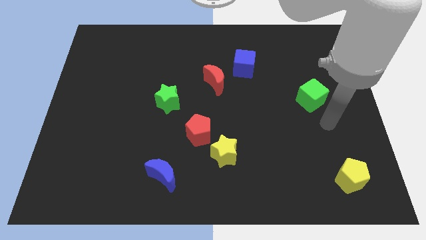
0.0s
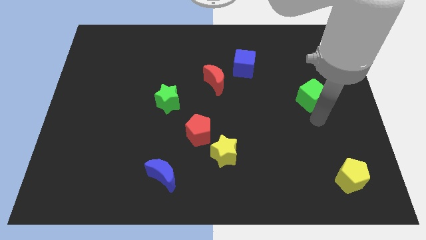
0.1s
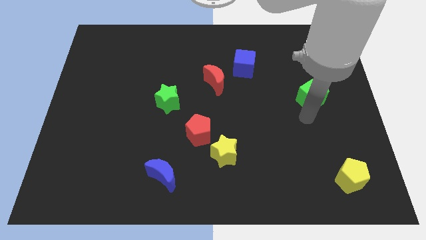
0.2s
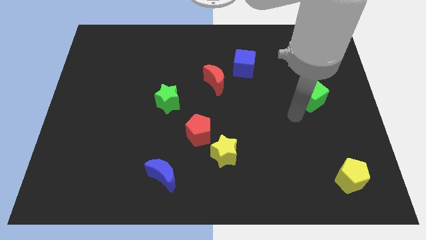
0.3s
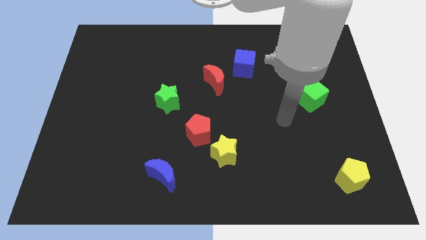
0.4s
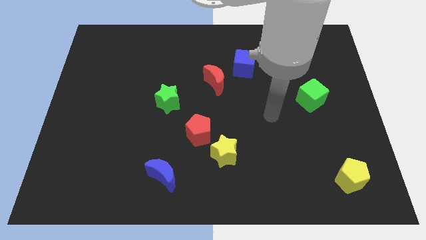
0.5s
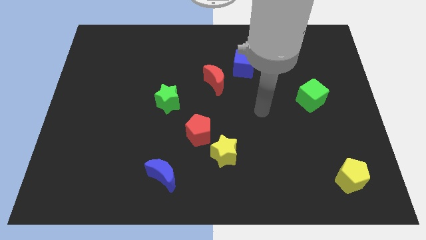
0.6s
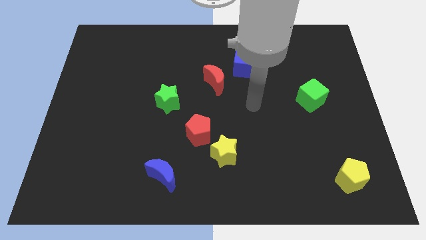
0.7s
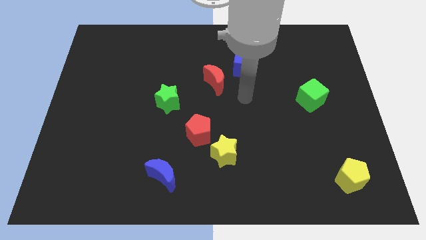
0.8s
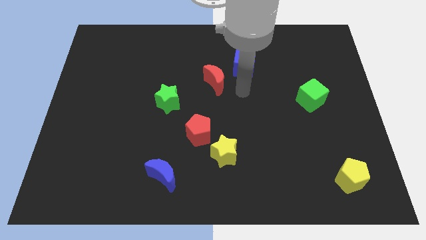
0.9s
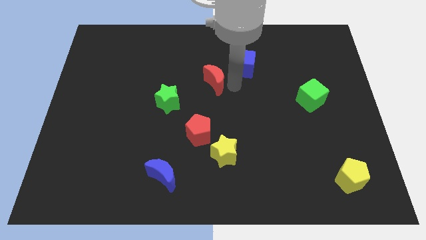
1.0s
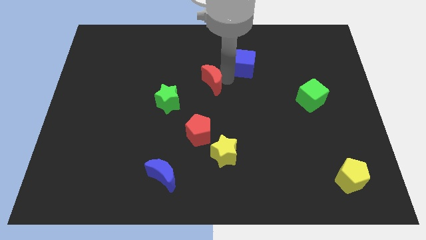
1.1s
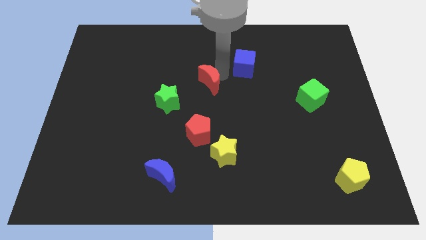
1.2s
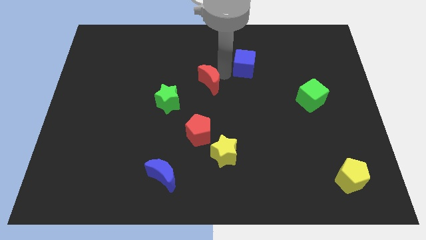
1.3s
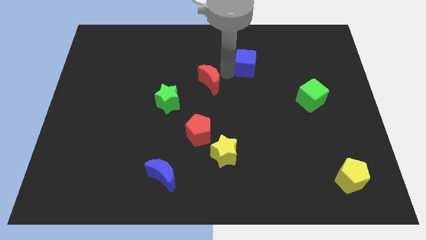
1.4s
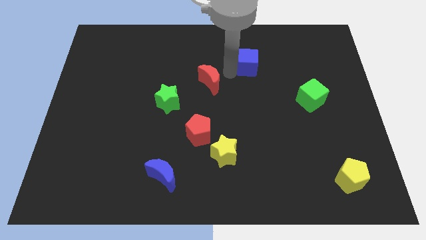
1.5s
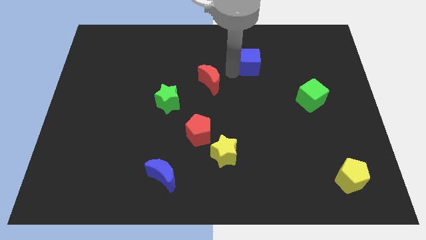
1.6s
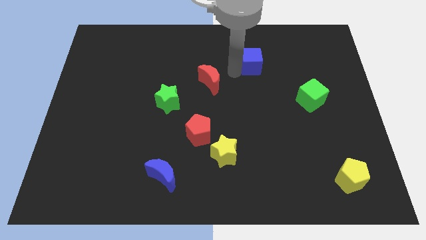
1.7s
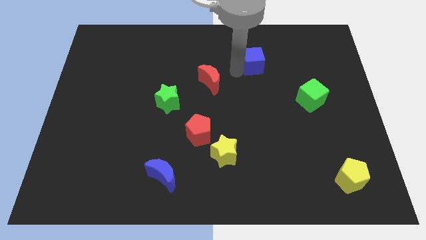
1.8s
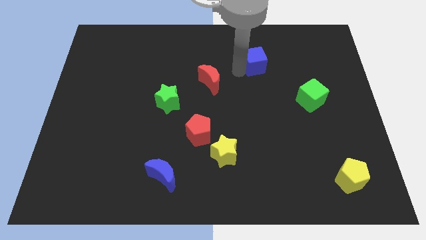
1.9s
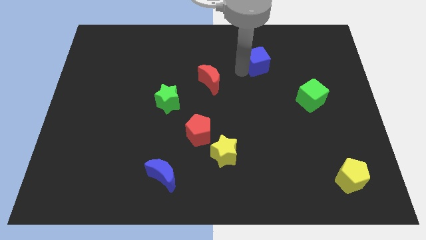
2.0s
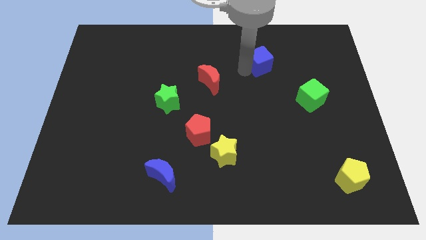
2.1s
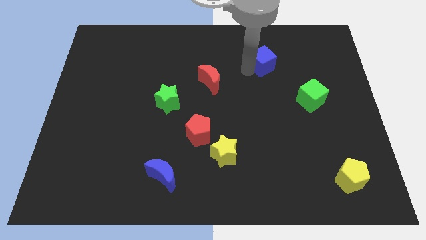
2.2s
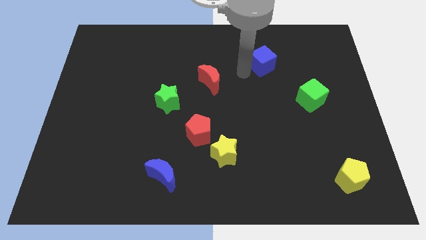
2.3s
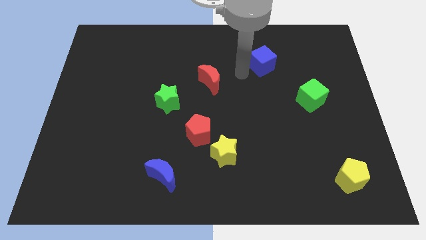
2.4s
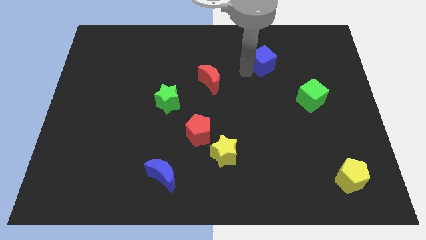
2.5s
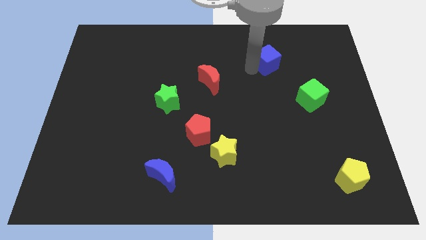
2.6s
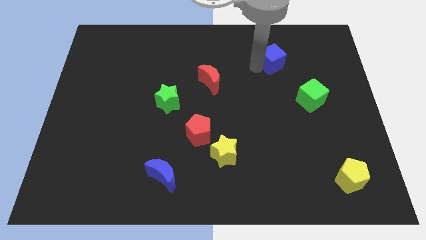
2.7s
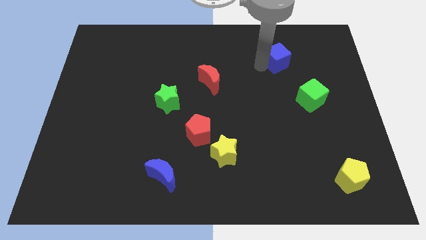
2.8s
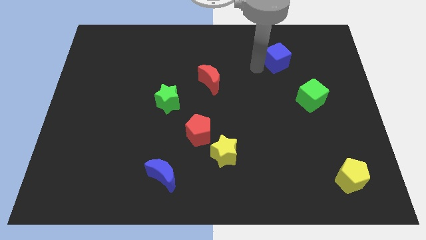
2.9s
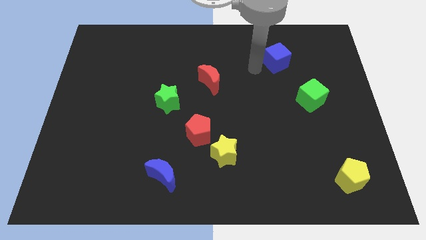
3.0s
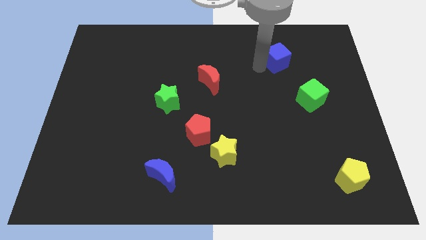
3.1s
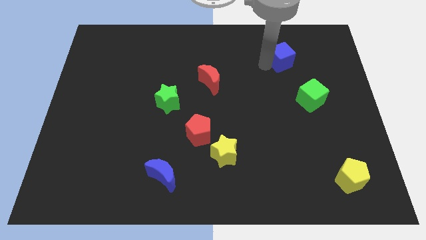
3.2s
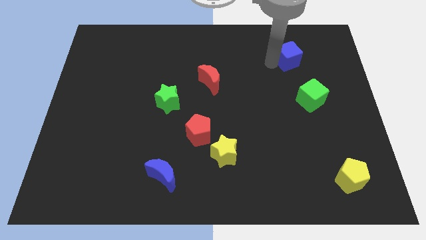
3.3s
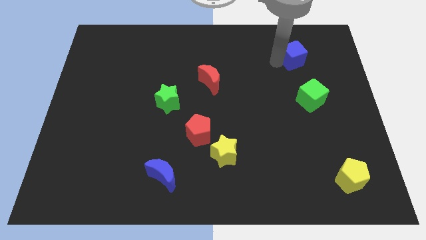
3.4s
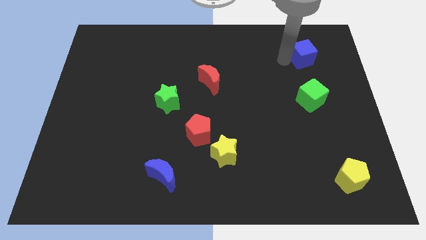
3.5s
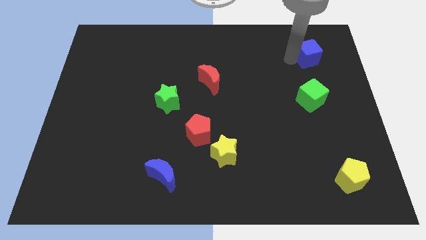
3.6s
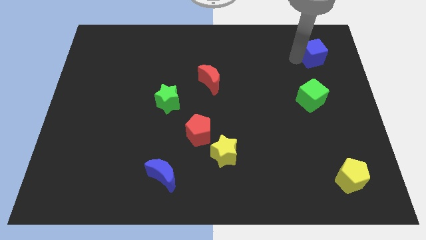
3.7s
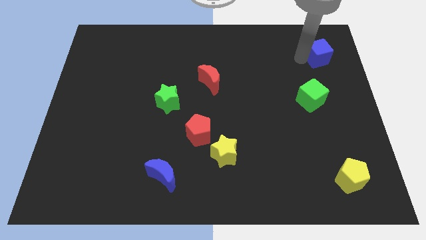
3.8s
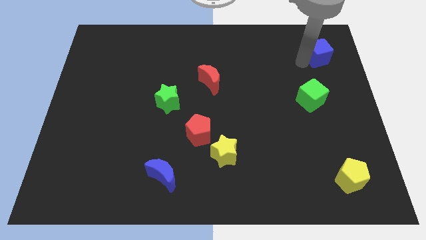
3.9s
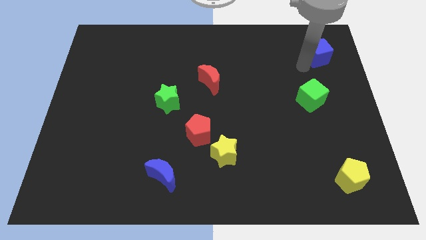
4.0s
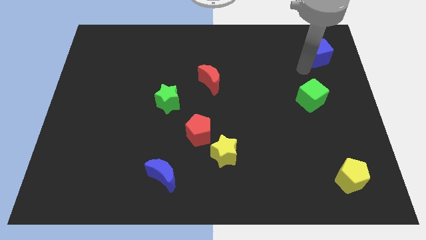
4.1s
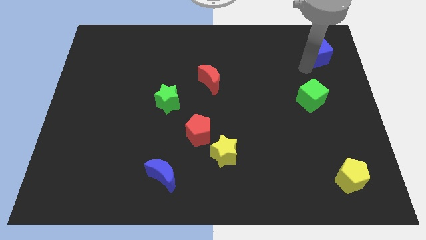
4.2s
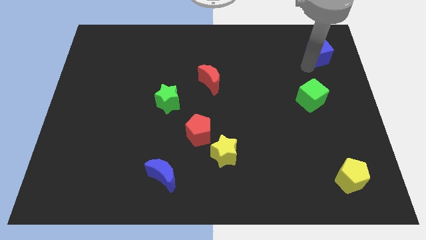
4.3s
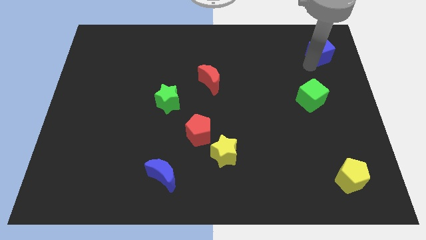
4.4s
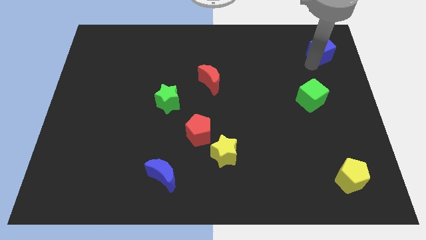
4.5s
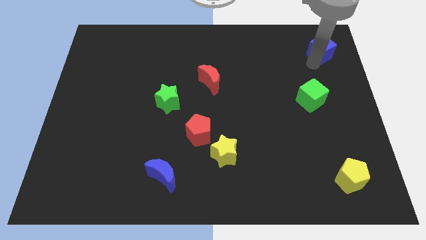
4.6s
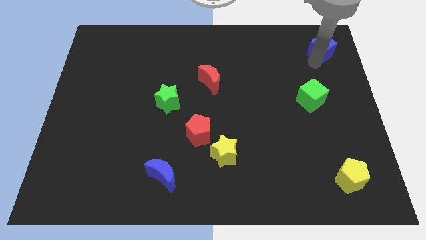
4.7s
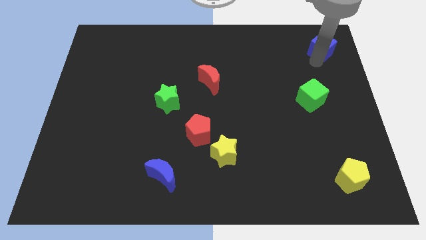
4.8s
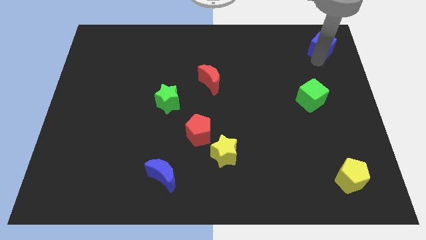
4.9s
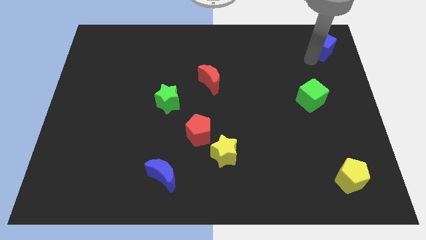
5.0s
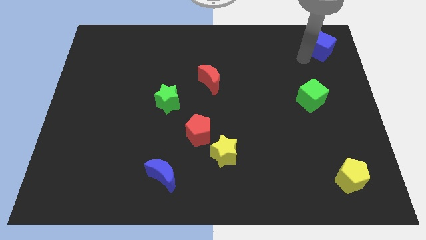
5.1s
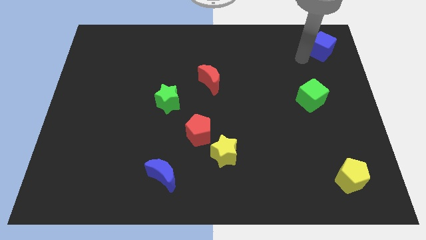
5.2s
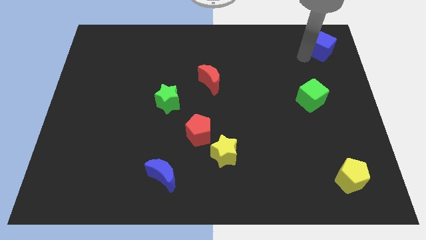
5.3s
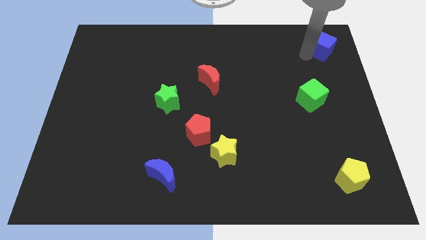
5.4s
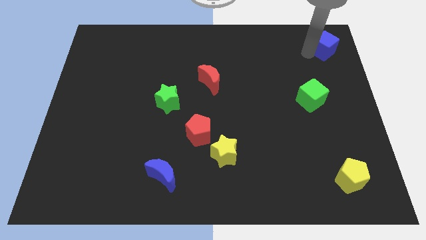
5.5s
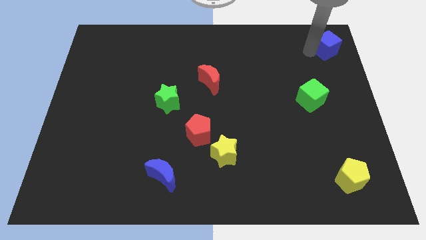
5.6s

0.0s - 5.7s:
put the blue cube to the top right

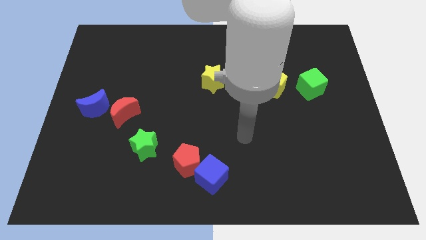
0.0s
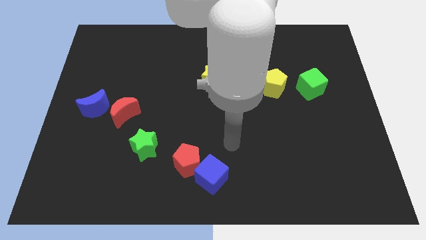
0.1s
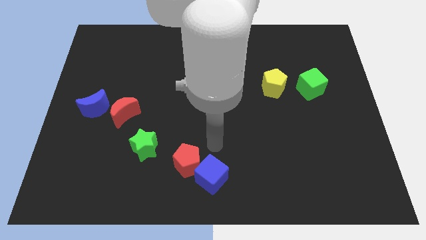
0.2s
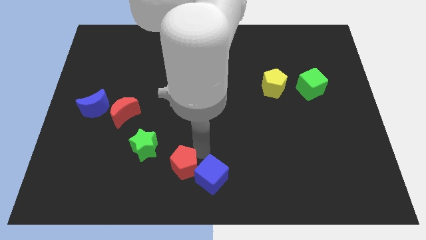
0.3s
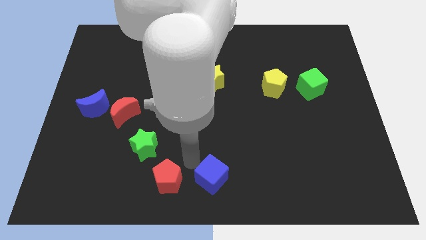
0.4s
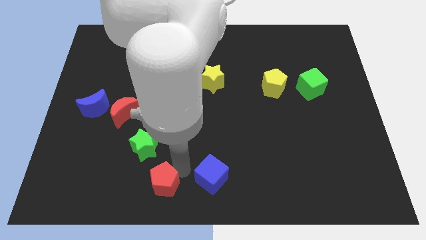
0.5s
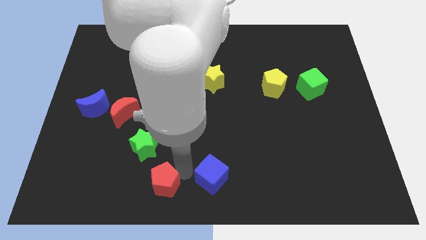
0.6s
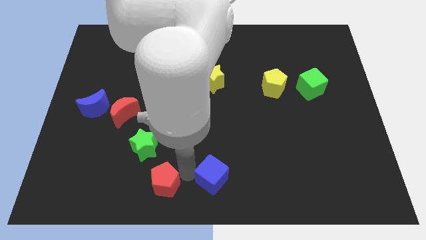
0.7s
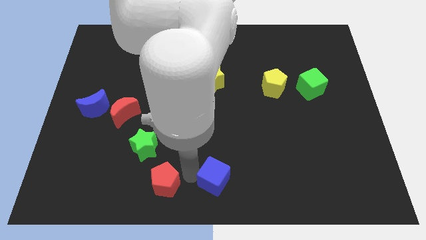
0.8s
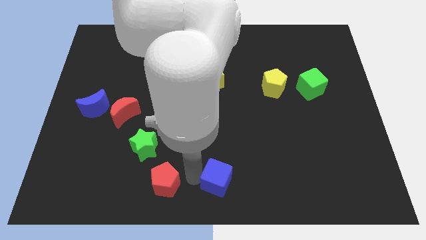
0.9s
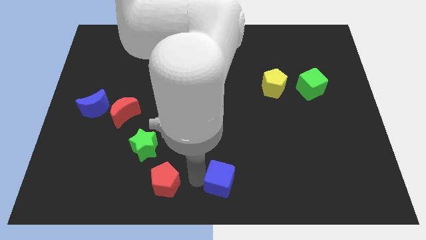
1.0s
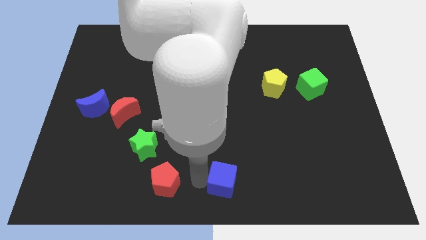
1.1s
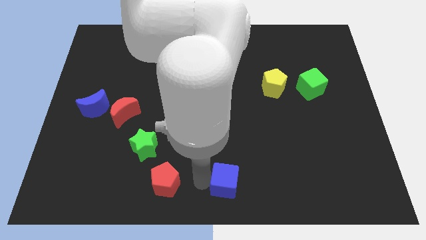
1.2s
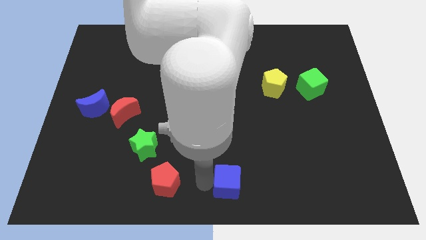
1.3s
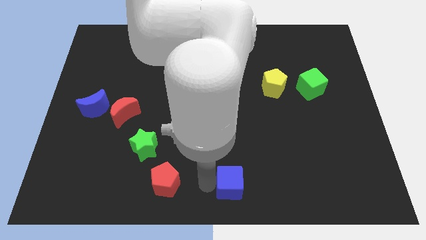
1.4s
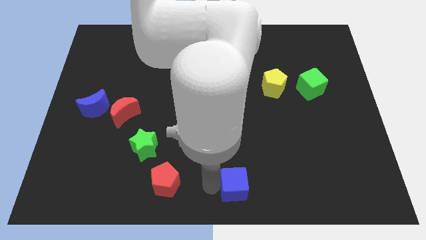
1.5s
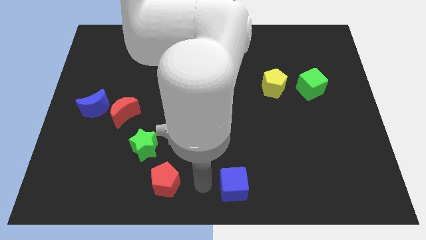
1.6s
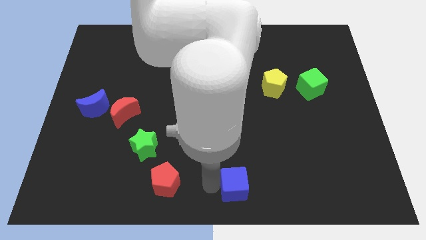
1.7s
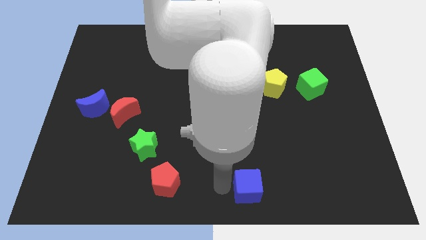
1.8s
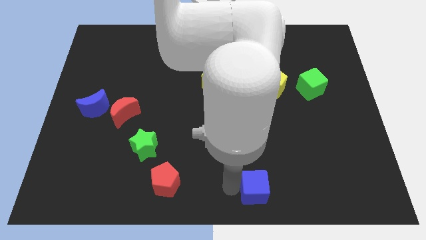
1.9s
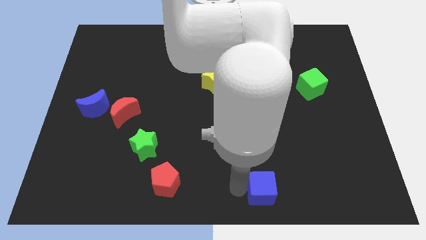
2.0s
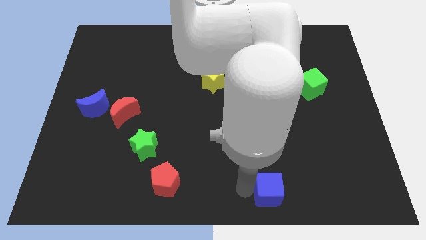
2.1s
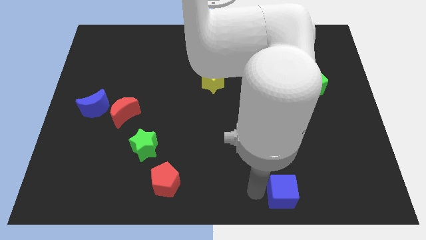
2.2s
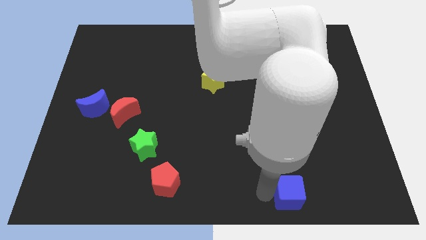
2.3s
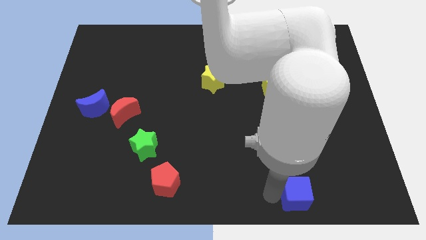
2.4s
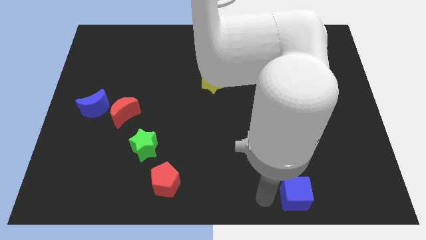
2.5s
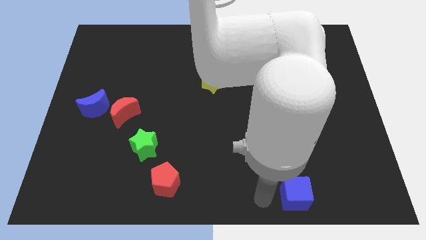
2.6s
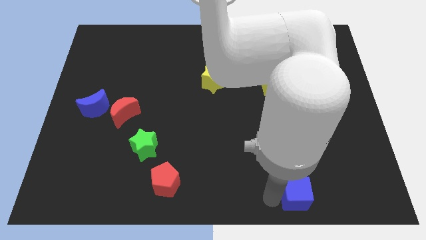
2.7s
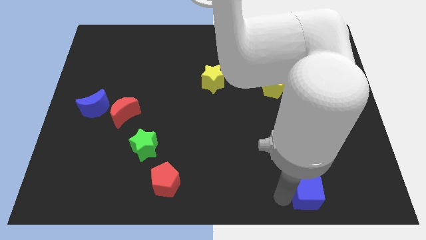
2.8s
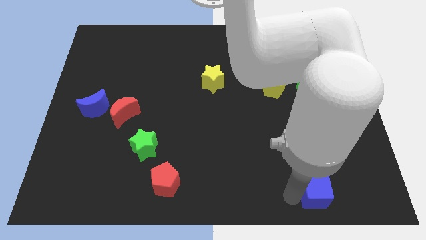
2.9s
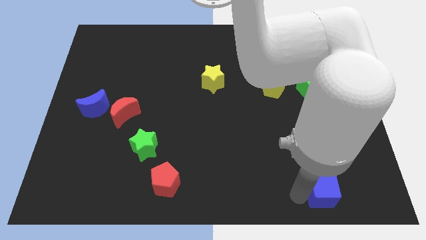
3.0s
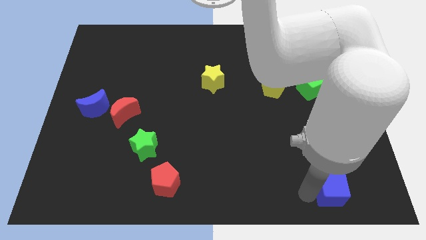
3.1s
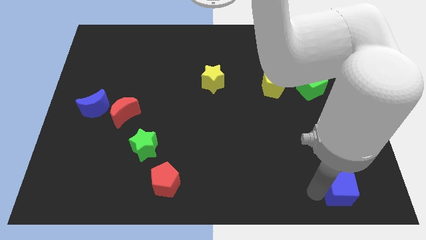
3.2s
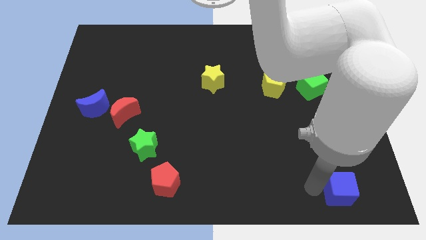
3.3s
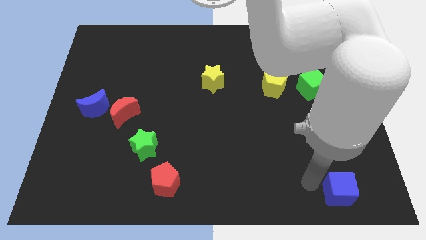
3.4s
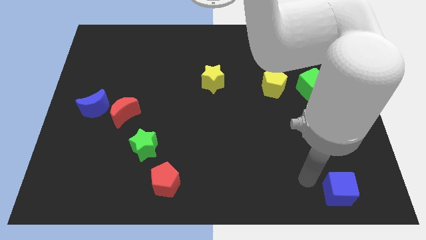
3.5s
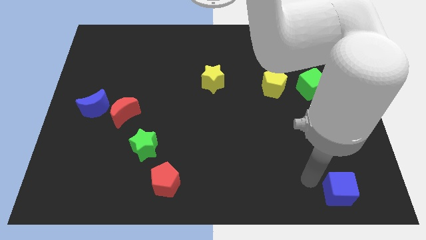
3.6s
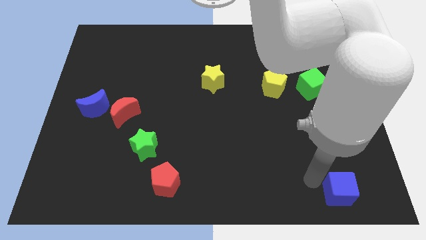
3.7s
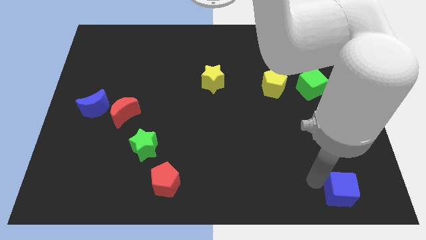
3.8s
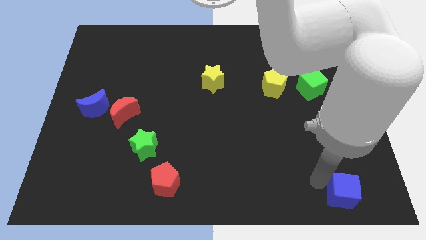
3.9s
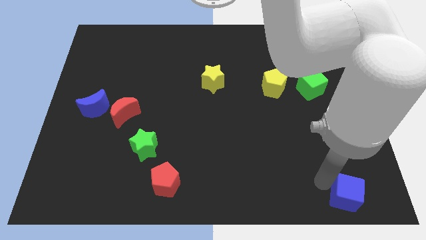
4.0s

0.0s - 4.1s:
move the blue cube to the lower right corner
